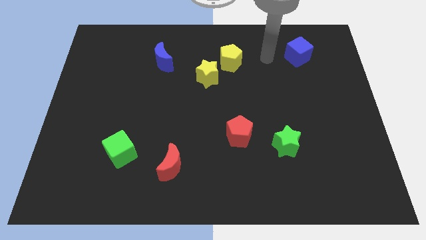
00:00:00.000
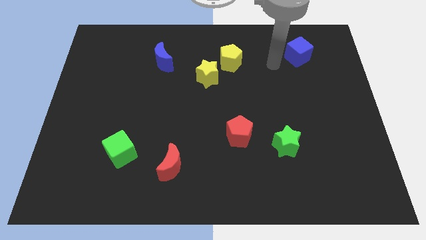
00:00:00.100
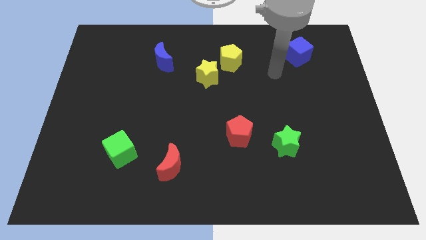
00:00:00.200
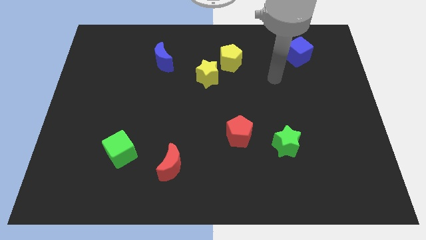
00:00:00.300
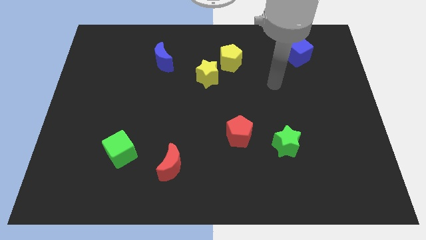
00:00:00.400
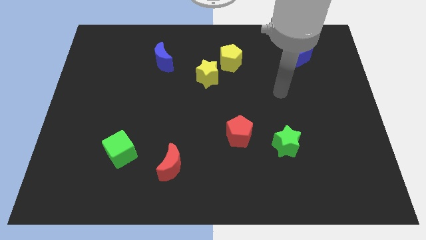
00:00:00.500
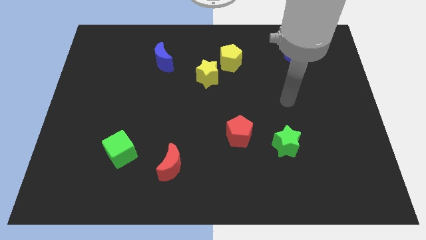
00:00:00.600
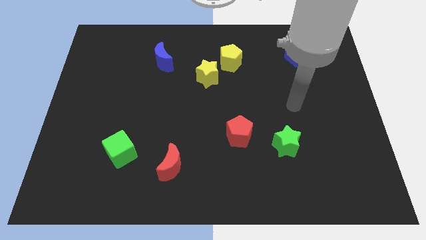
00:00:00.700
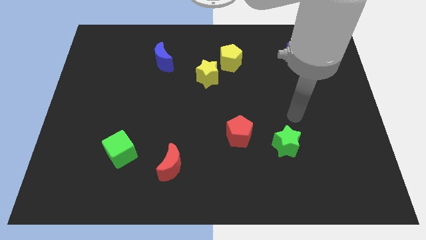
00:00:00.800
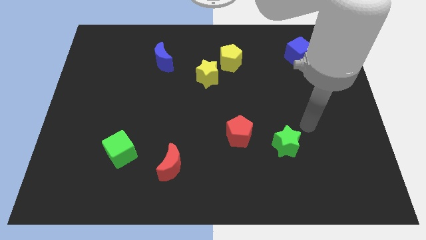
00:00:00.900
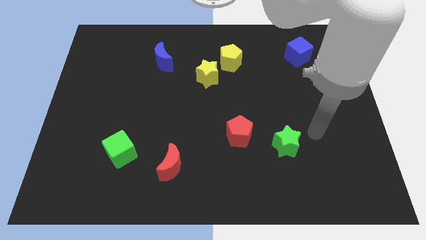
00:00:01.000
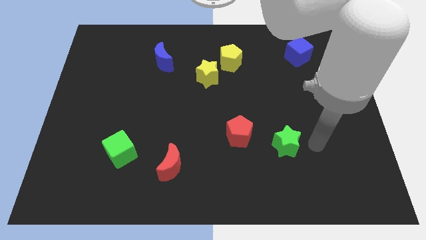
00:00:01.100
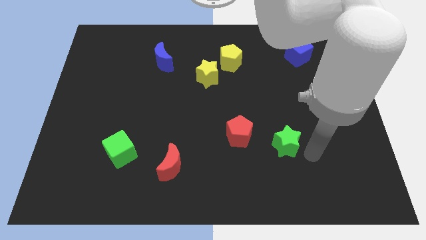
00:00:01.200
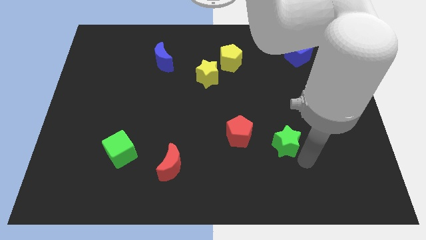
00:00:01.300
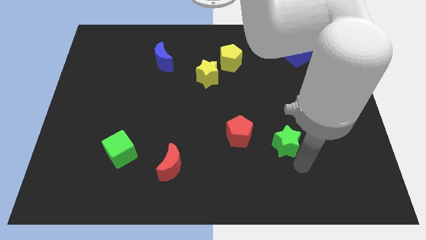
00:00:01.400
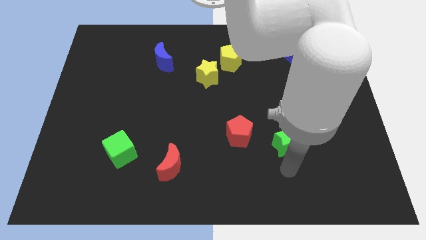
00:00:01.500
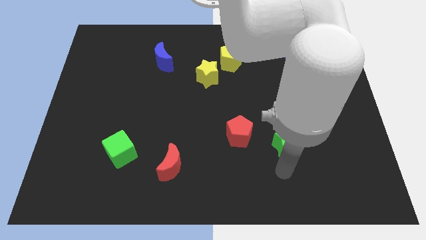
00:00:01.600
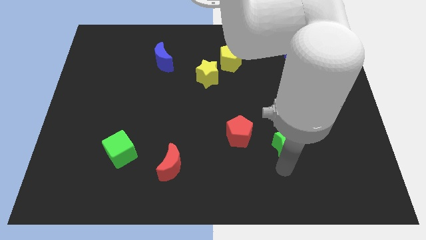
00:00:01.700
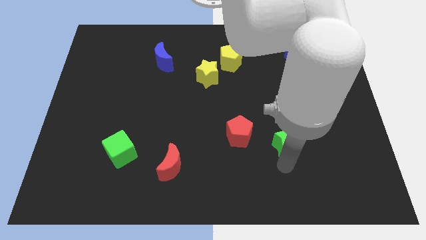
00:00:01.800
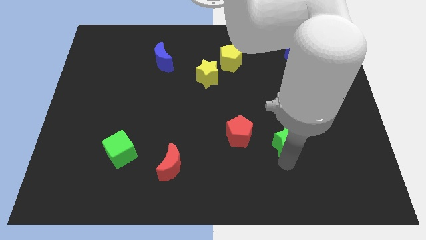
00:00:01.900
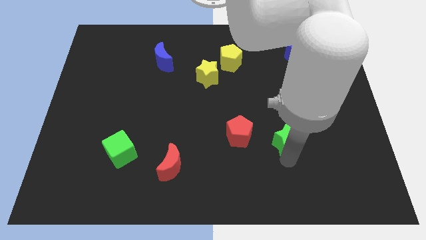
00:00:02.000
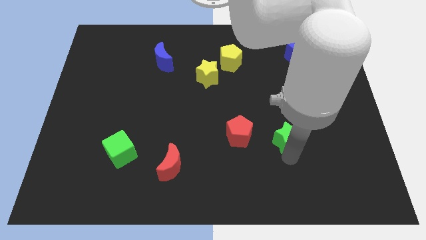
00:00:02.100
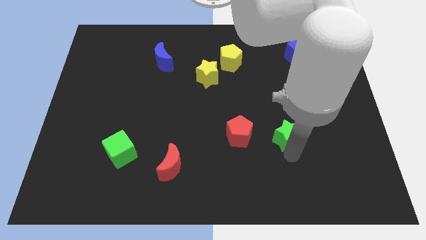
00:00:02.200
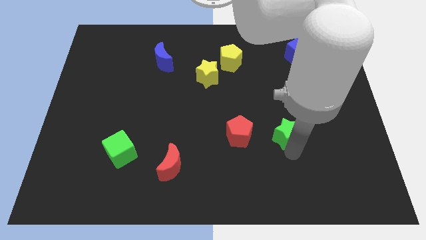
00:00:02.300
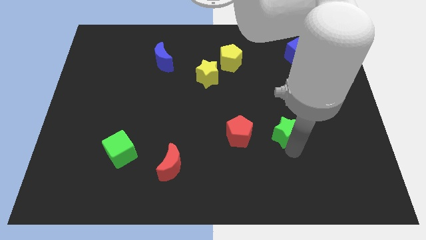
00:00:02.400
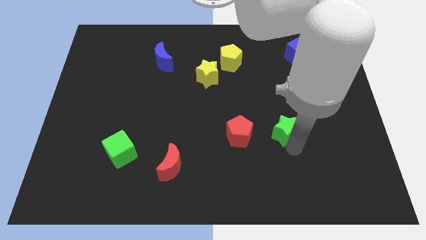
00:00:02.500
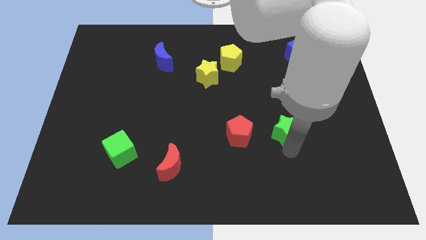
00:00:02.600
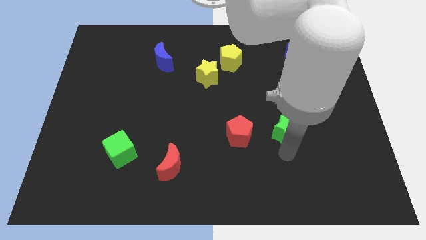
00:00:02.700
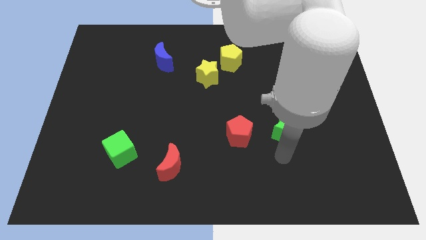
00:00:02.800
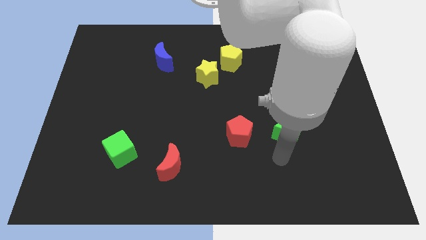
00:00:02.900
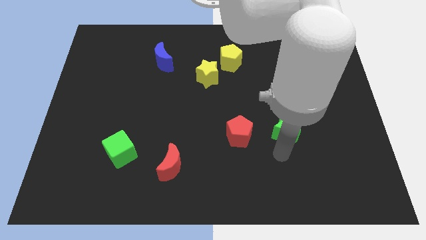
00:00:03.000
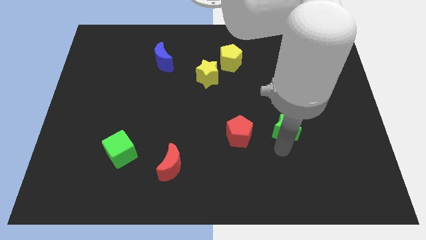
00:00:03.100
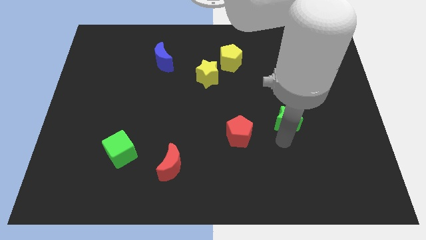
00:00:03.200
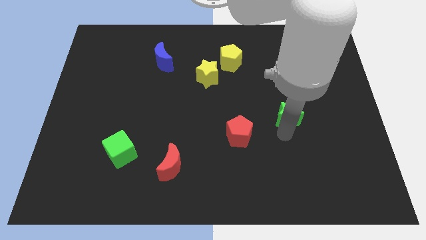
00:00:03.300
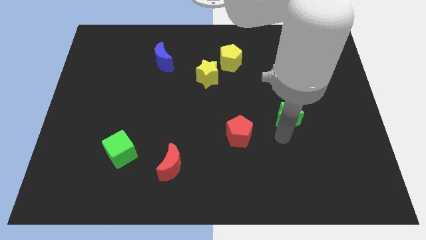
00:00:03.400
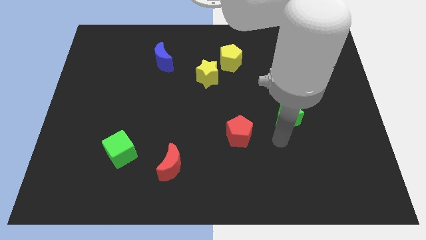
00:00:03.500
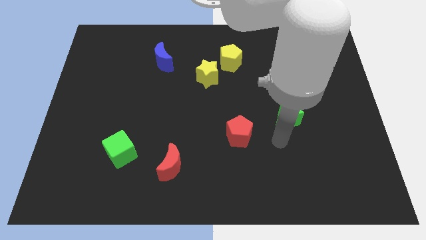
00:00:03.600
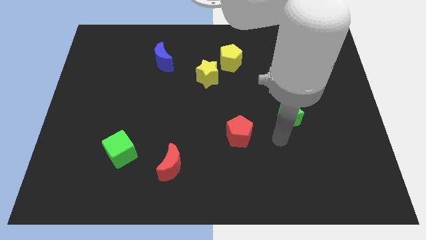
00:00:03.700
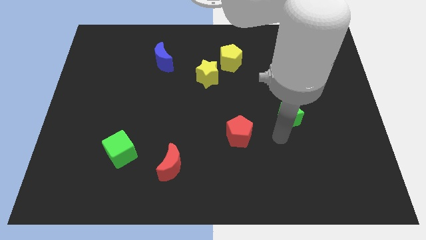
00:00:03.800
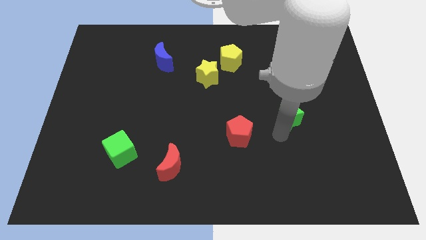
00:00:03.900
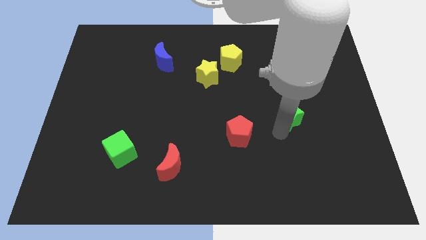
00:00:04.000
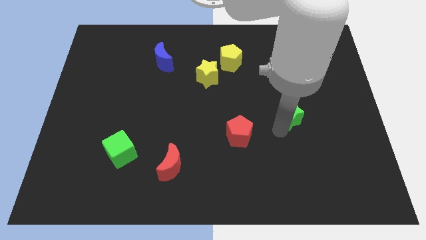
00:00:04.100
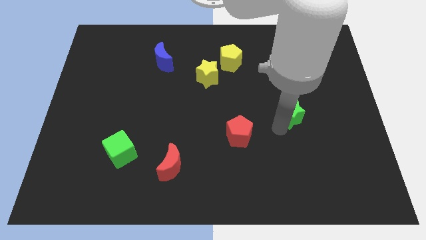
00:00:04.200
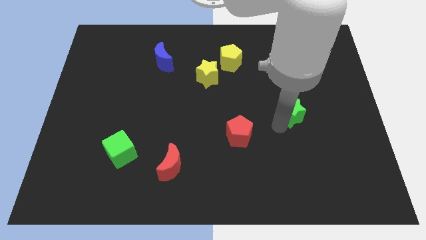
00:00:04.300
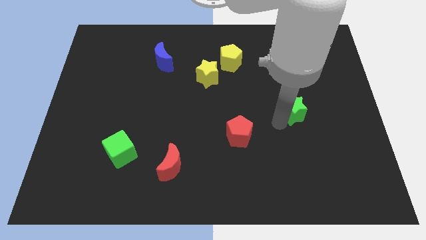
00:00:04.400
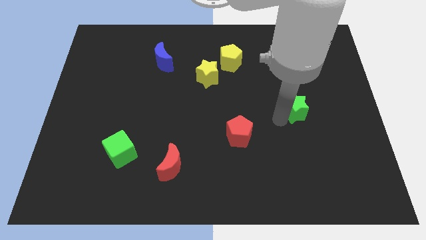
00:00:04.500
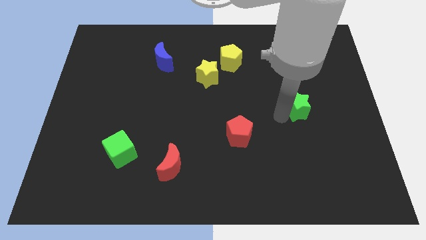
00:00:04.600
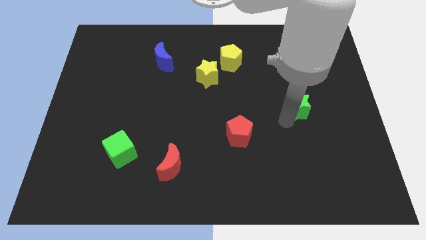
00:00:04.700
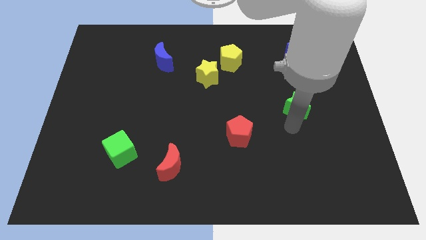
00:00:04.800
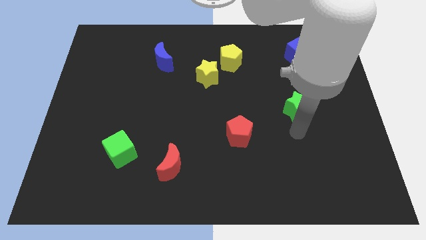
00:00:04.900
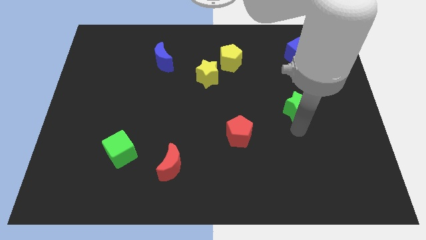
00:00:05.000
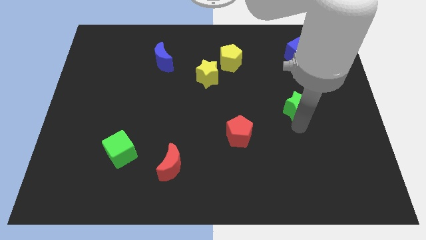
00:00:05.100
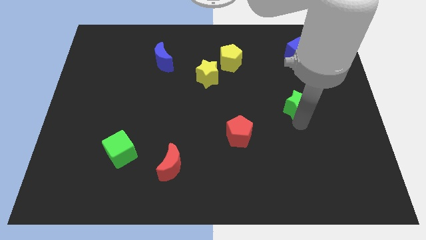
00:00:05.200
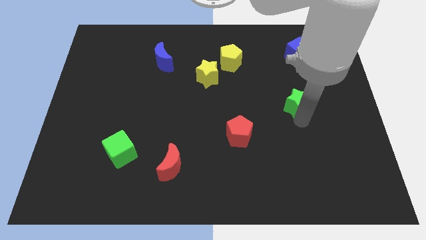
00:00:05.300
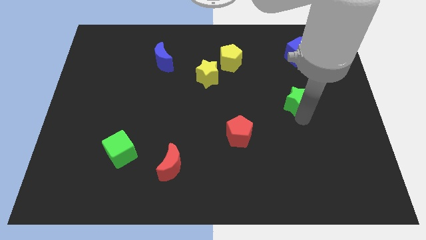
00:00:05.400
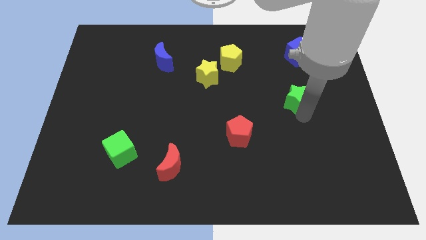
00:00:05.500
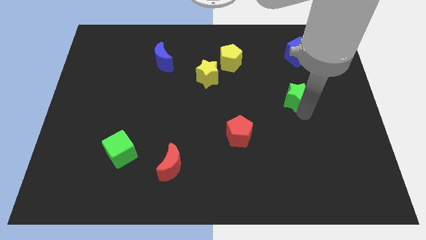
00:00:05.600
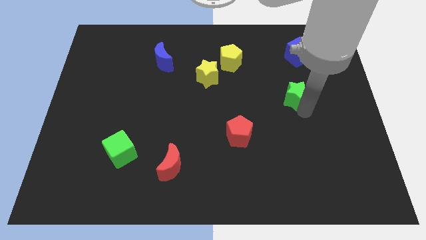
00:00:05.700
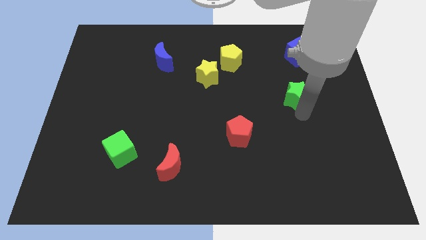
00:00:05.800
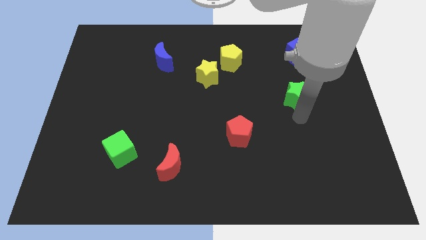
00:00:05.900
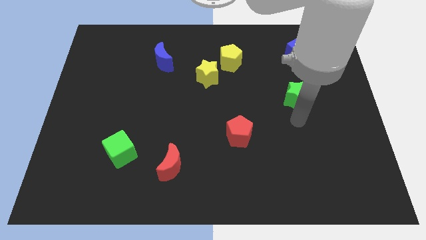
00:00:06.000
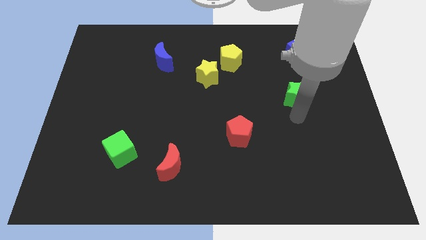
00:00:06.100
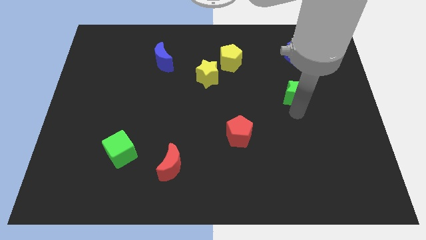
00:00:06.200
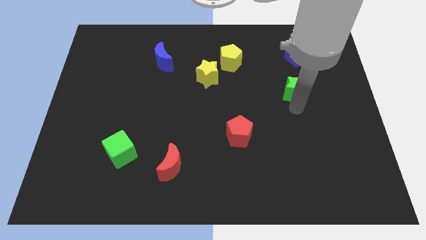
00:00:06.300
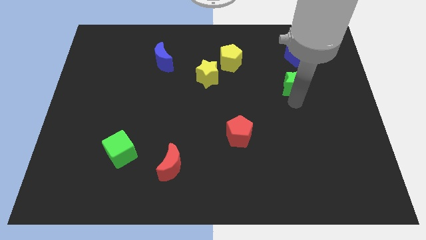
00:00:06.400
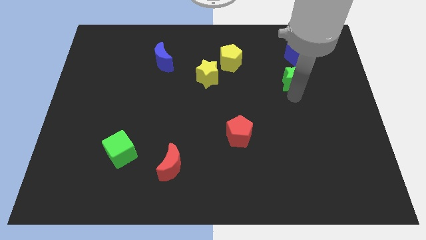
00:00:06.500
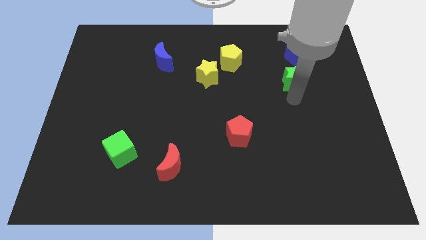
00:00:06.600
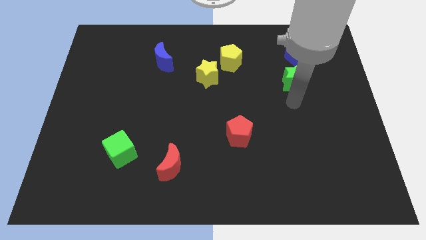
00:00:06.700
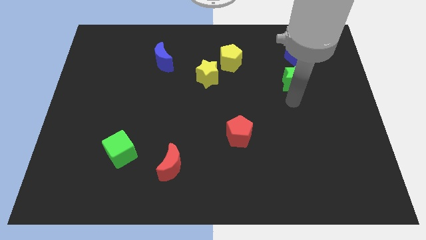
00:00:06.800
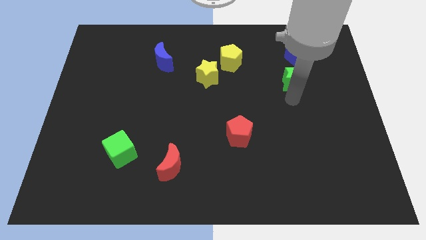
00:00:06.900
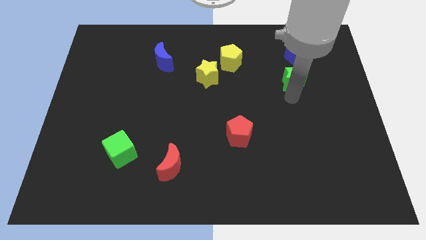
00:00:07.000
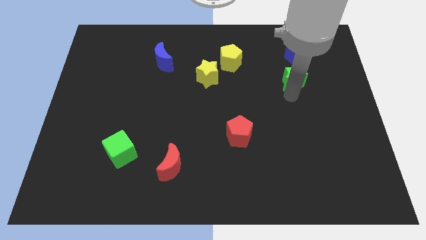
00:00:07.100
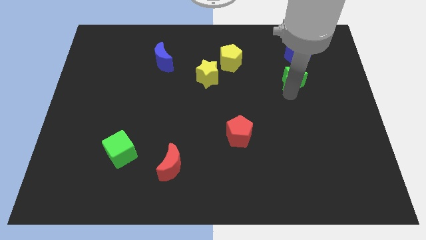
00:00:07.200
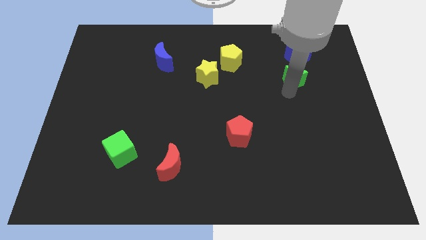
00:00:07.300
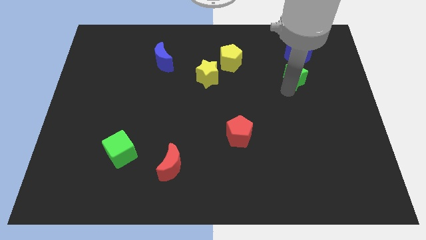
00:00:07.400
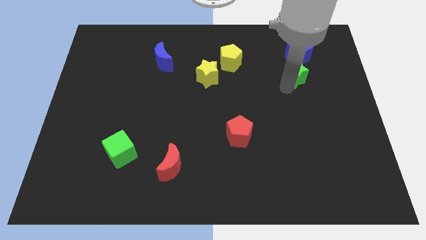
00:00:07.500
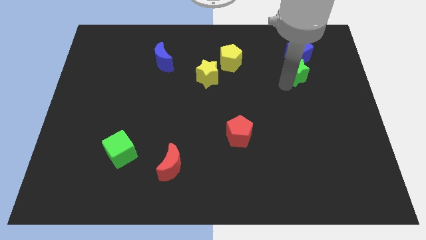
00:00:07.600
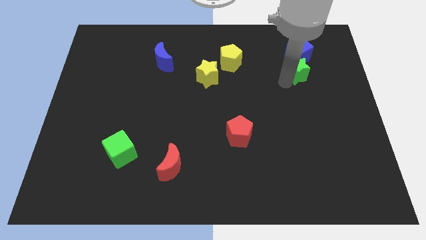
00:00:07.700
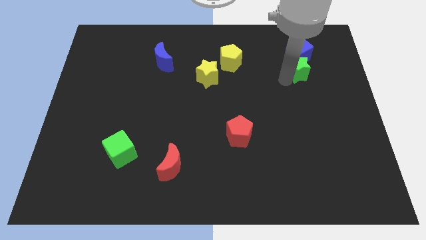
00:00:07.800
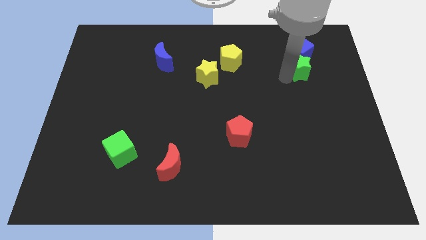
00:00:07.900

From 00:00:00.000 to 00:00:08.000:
slide the green star towards the blue cube
